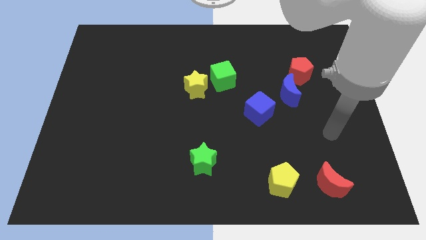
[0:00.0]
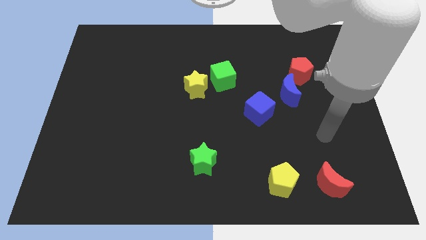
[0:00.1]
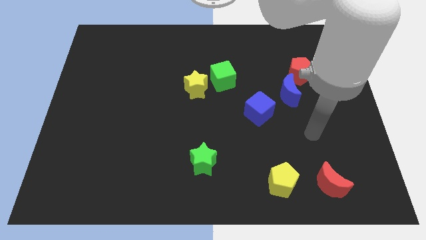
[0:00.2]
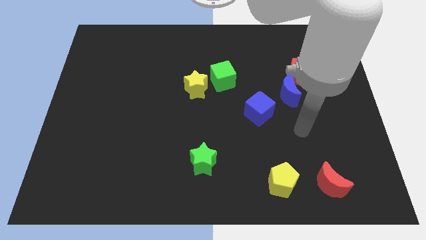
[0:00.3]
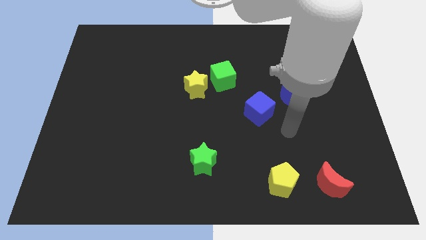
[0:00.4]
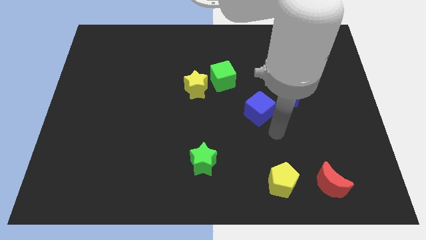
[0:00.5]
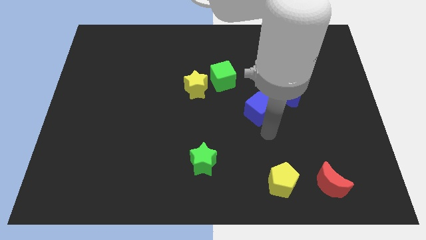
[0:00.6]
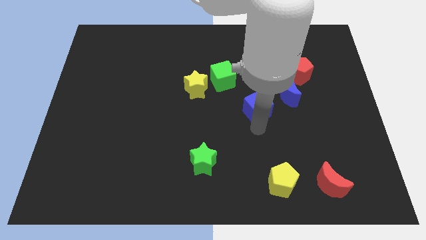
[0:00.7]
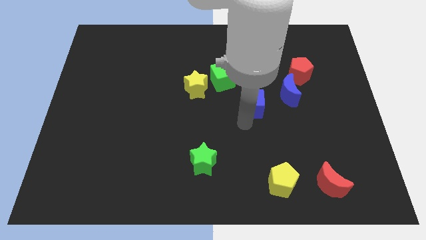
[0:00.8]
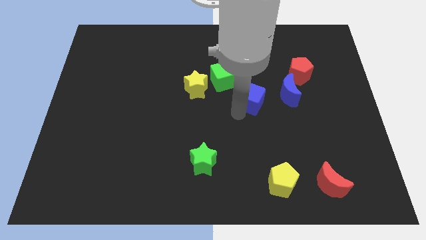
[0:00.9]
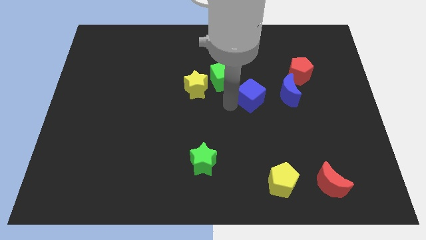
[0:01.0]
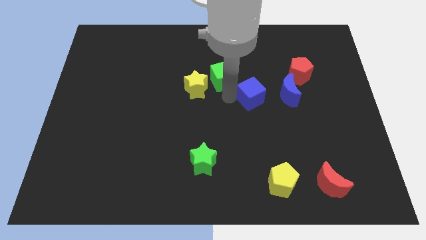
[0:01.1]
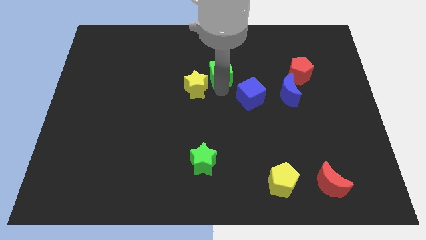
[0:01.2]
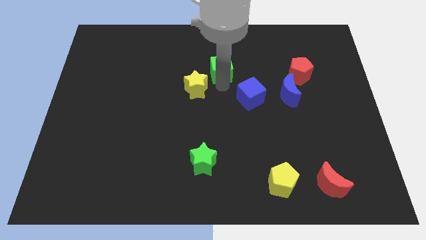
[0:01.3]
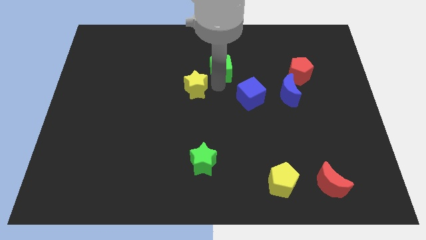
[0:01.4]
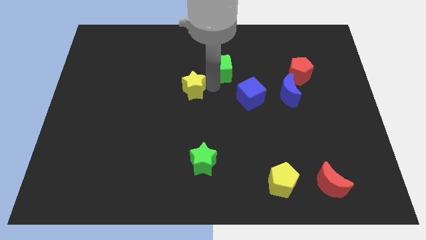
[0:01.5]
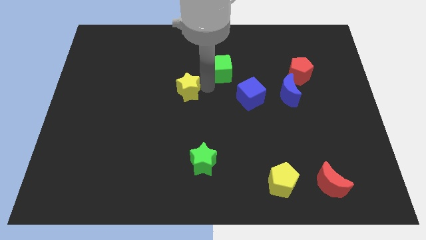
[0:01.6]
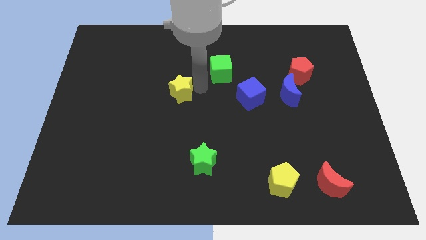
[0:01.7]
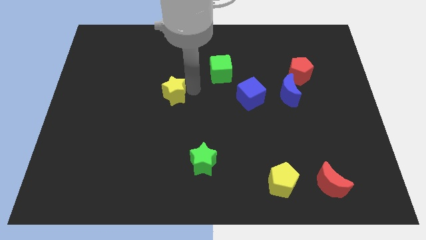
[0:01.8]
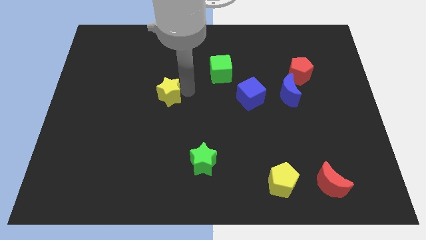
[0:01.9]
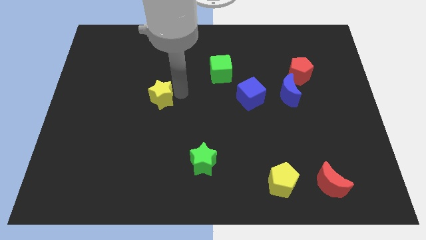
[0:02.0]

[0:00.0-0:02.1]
push the yellow star slightly to the left

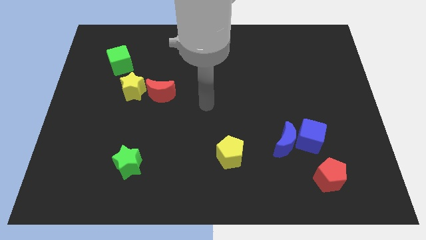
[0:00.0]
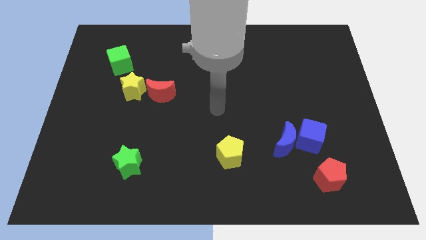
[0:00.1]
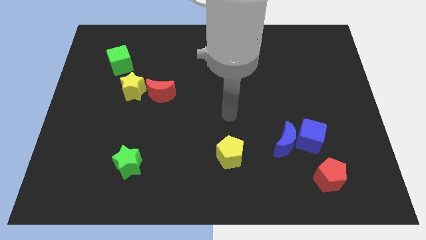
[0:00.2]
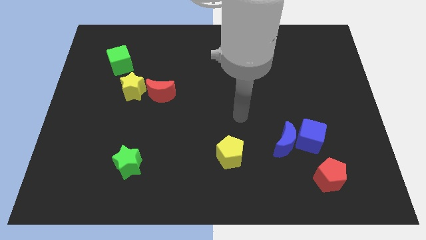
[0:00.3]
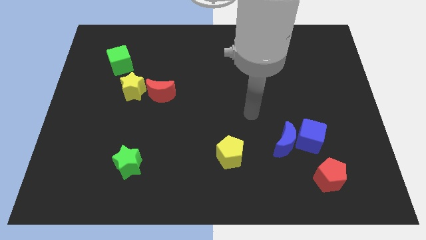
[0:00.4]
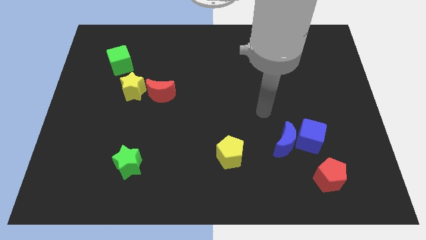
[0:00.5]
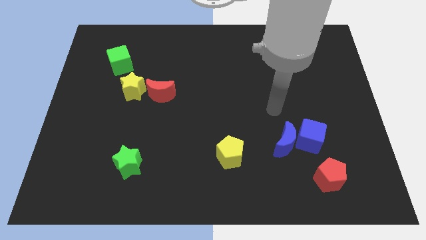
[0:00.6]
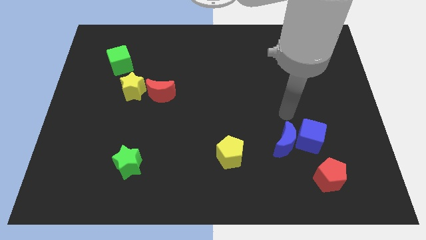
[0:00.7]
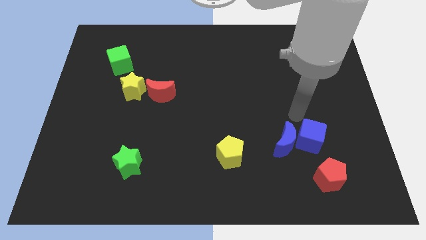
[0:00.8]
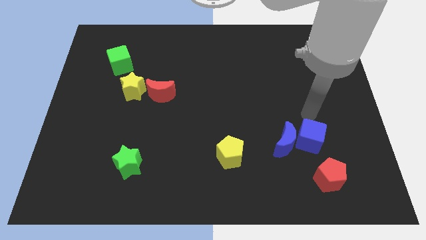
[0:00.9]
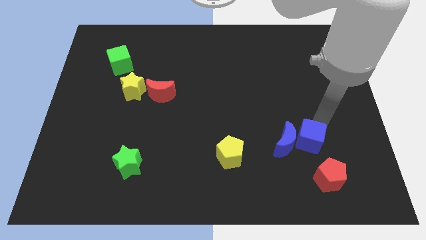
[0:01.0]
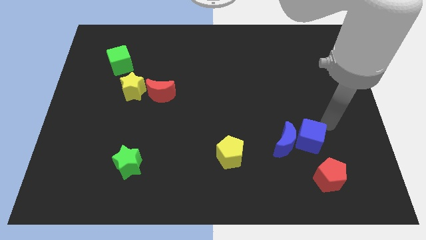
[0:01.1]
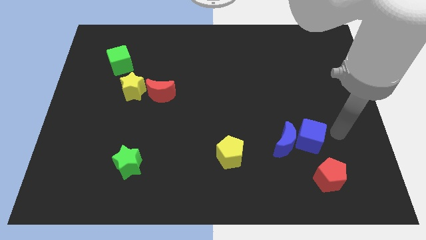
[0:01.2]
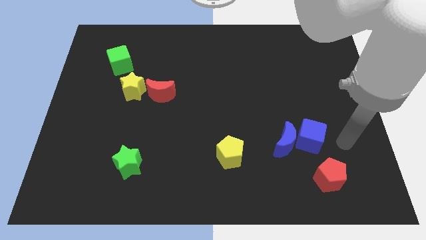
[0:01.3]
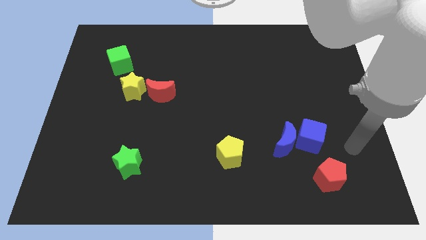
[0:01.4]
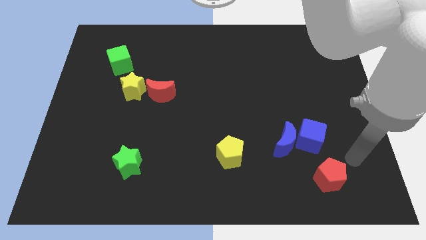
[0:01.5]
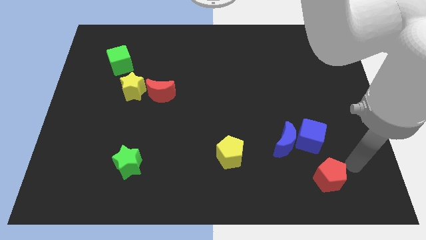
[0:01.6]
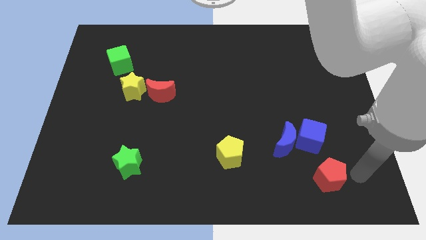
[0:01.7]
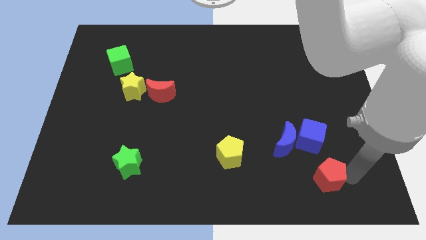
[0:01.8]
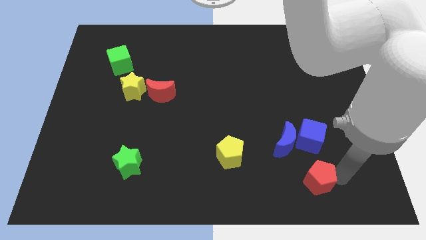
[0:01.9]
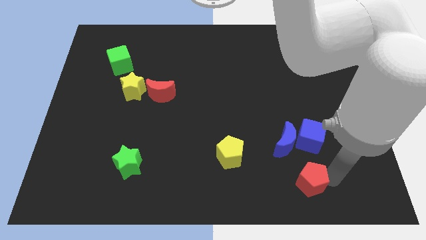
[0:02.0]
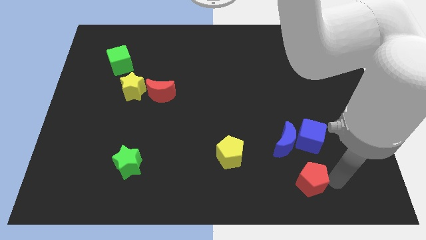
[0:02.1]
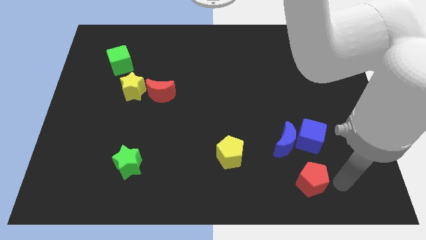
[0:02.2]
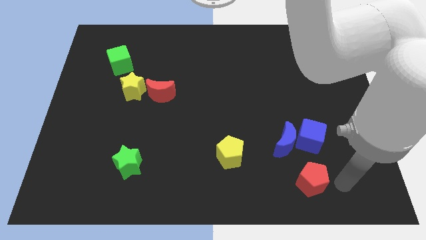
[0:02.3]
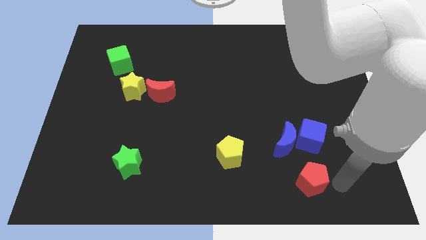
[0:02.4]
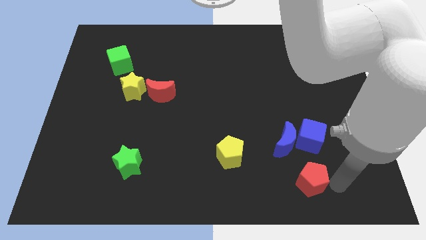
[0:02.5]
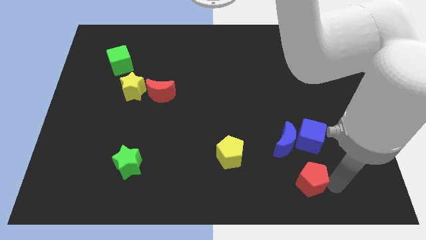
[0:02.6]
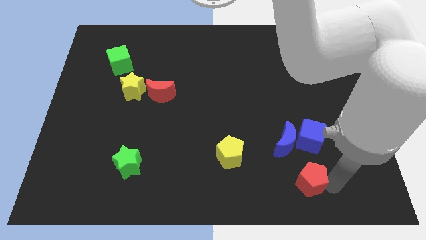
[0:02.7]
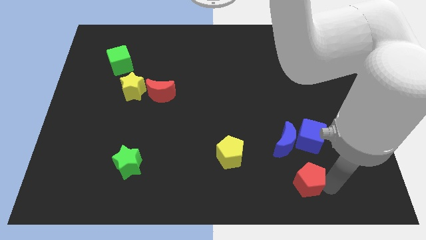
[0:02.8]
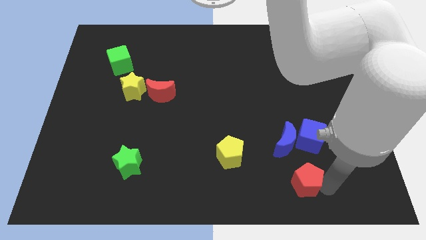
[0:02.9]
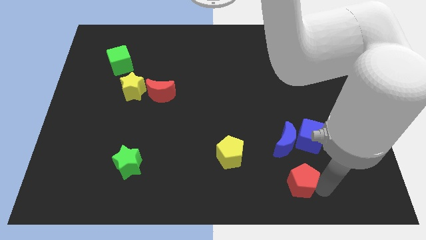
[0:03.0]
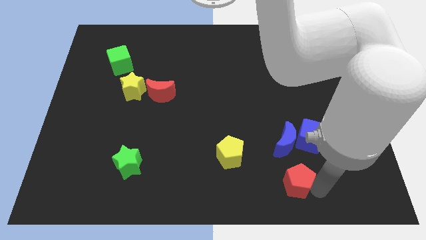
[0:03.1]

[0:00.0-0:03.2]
slightly move the red pentagon left

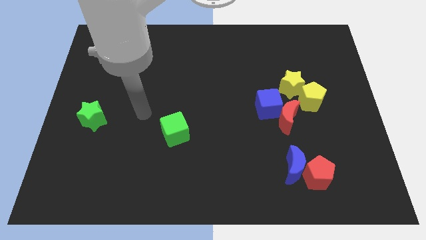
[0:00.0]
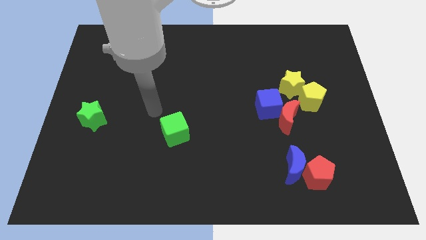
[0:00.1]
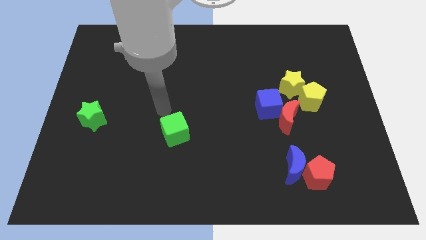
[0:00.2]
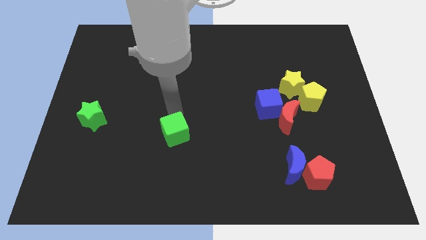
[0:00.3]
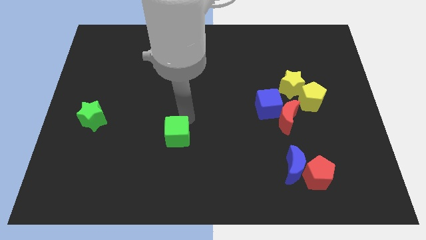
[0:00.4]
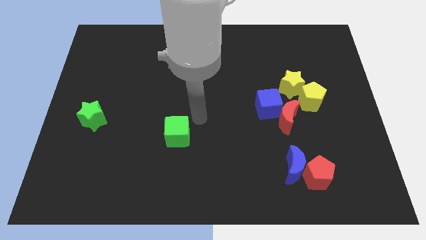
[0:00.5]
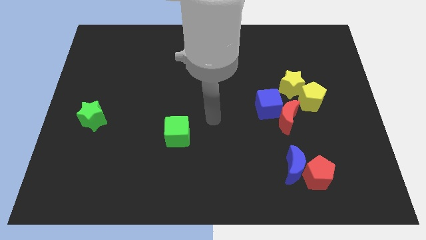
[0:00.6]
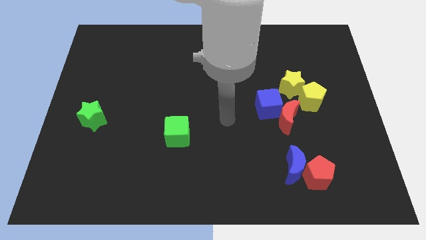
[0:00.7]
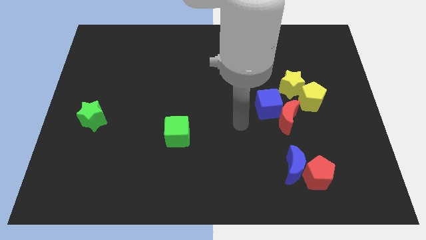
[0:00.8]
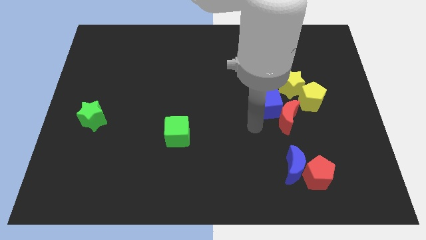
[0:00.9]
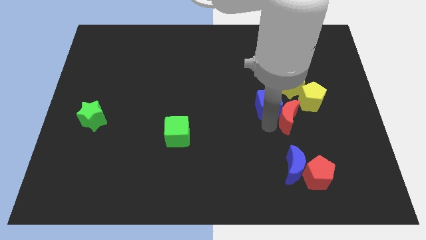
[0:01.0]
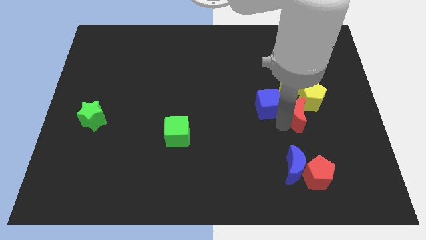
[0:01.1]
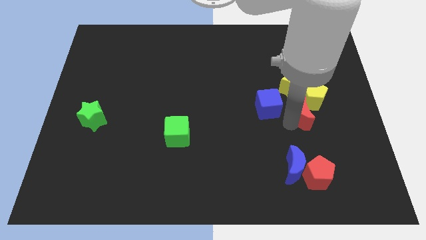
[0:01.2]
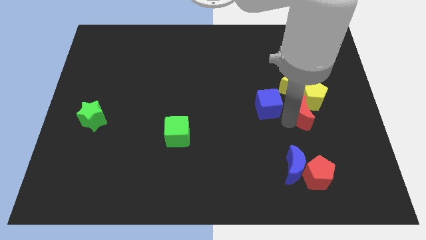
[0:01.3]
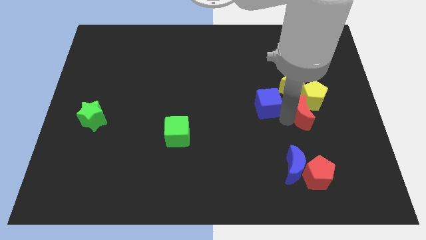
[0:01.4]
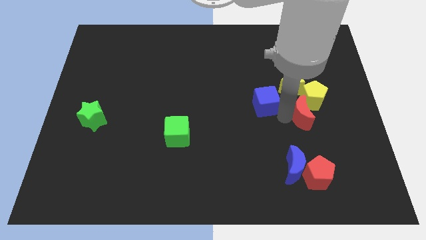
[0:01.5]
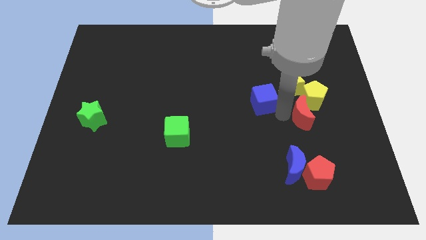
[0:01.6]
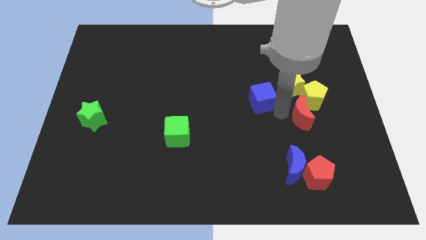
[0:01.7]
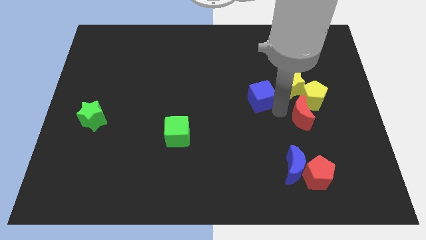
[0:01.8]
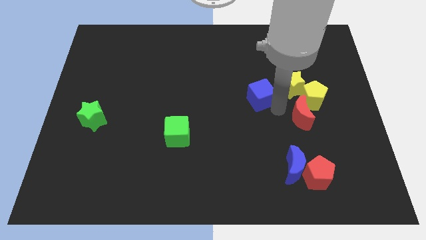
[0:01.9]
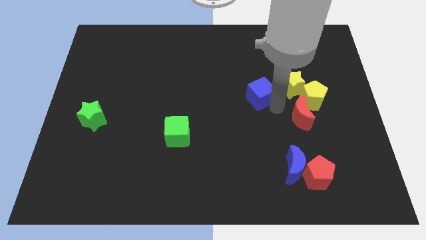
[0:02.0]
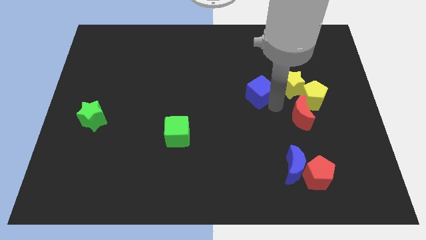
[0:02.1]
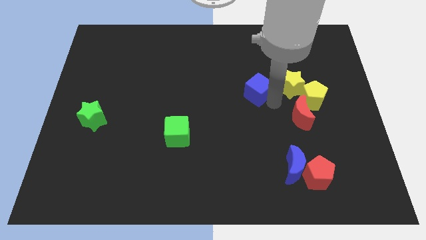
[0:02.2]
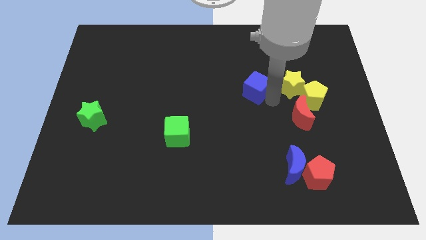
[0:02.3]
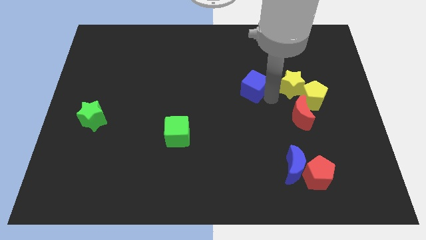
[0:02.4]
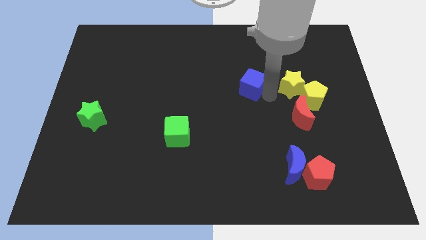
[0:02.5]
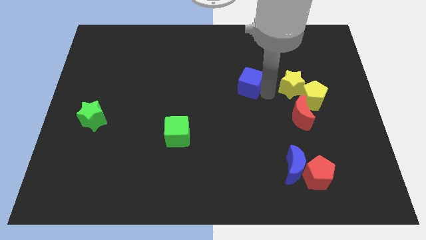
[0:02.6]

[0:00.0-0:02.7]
push the blue cube diagonally up and to the left a bit

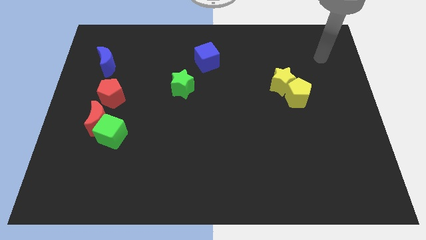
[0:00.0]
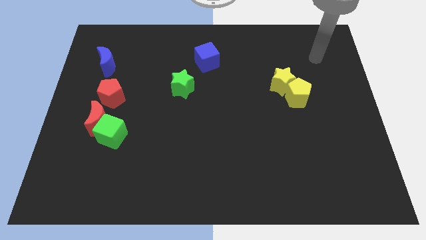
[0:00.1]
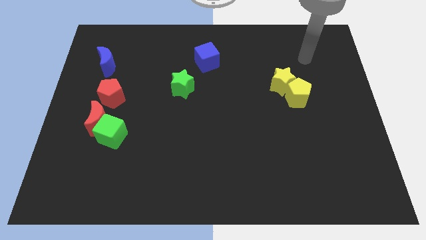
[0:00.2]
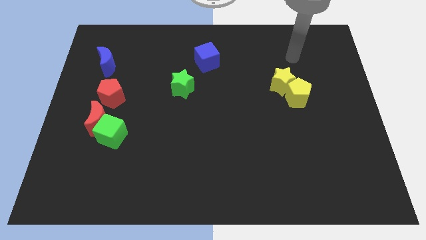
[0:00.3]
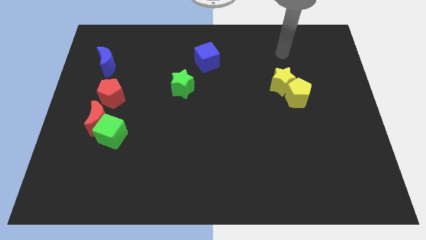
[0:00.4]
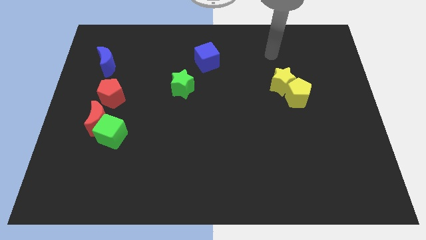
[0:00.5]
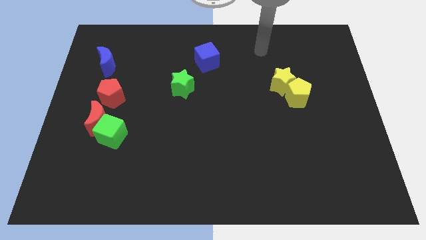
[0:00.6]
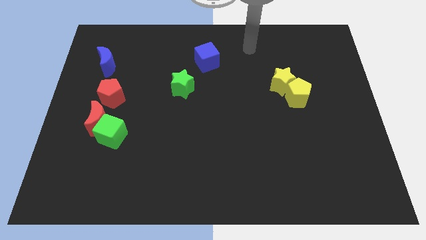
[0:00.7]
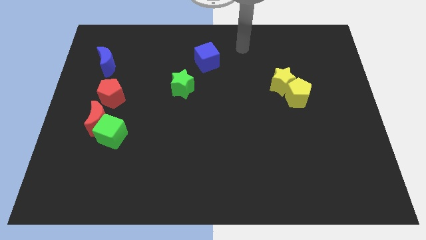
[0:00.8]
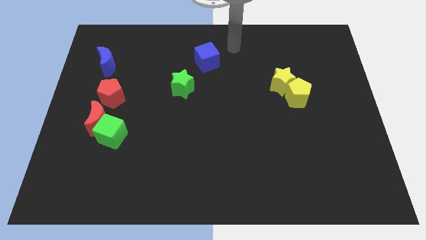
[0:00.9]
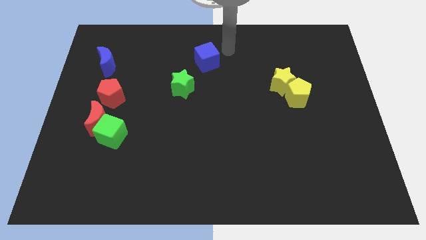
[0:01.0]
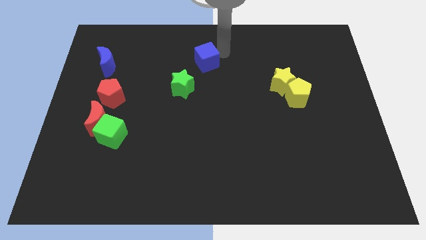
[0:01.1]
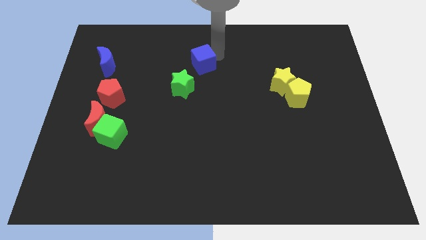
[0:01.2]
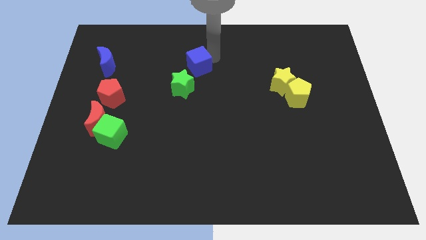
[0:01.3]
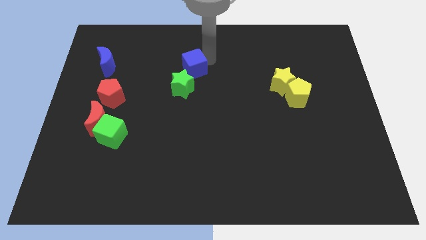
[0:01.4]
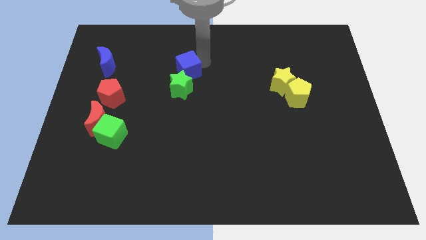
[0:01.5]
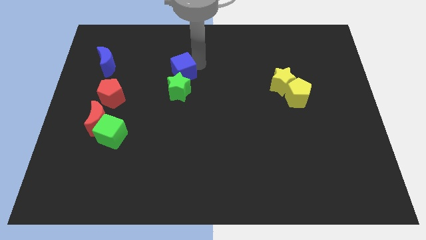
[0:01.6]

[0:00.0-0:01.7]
slide the blue cube a little down and then left
